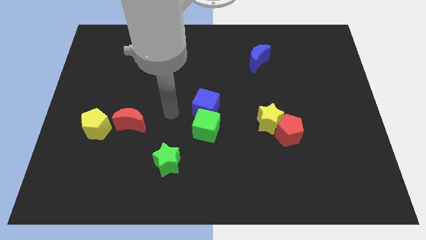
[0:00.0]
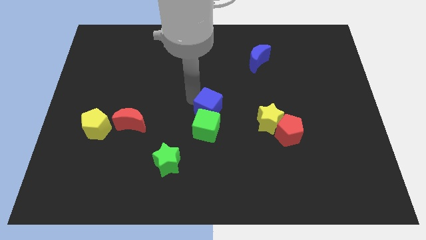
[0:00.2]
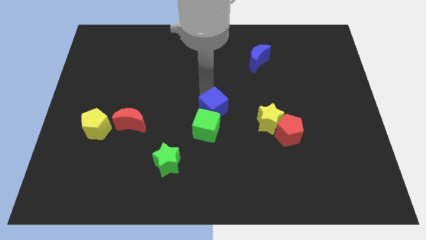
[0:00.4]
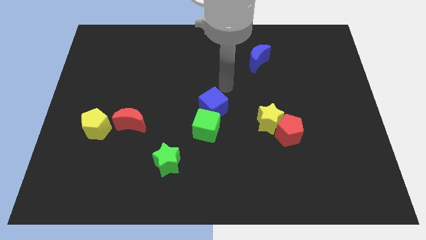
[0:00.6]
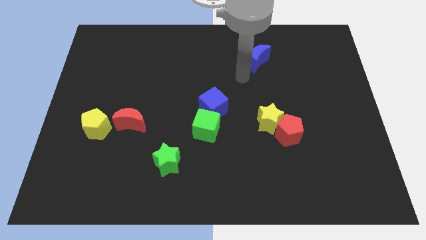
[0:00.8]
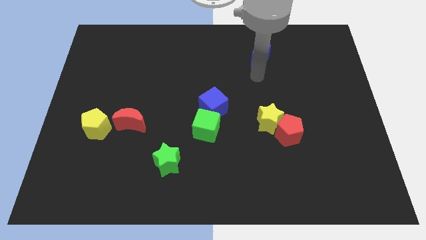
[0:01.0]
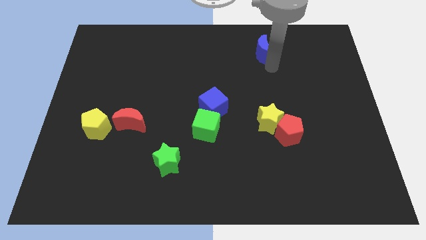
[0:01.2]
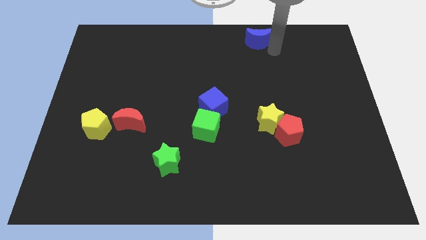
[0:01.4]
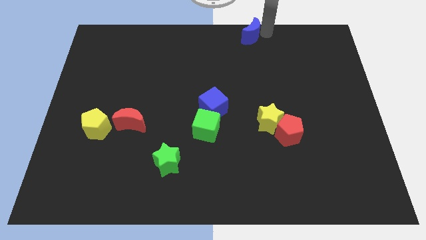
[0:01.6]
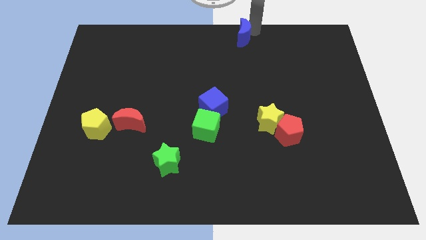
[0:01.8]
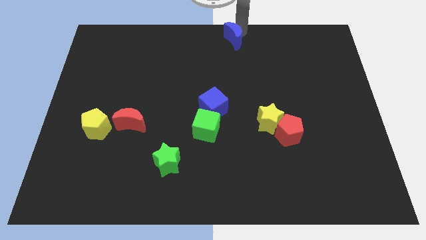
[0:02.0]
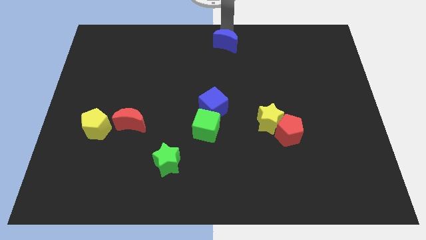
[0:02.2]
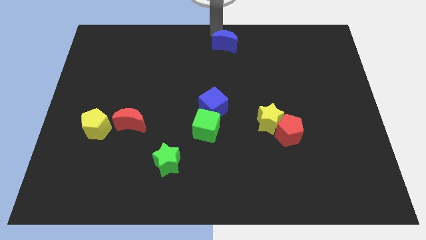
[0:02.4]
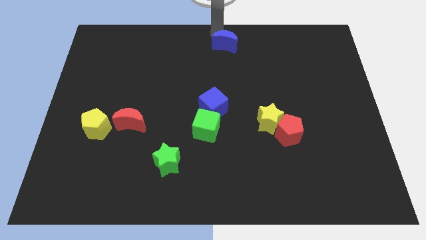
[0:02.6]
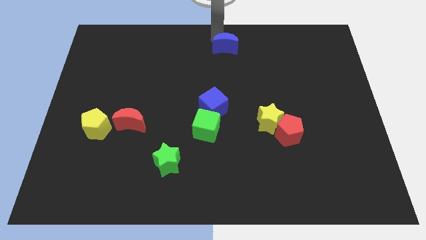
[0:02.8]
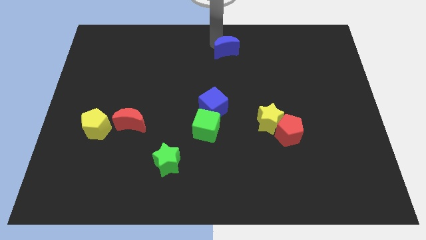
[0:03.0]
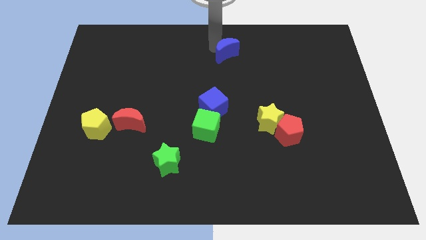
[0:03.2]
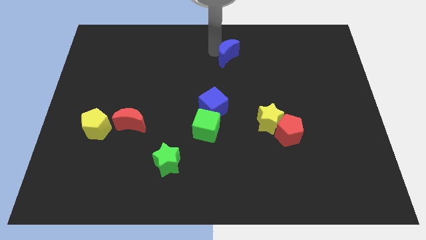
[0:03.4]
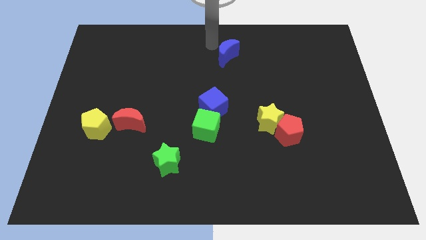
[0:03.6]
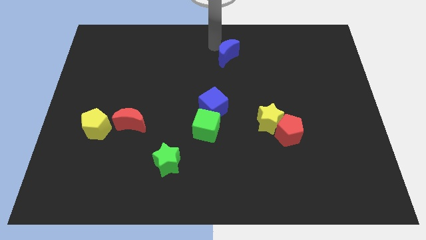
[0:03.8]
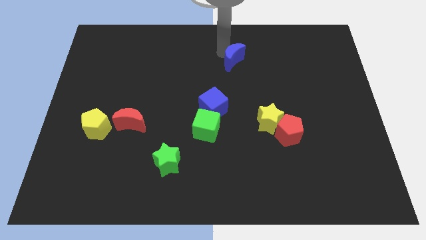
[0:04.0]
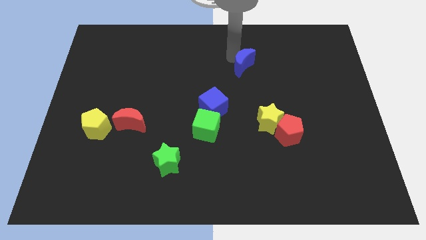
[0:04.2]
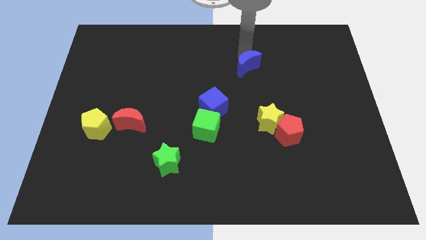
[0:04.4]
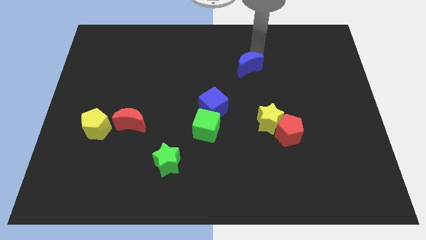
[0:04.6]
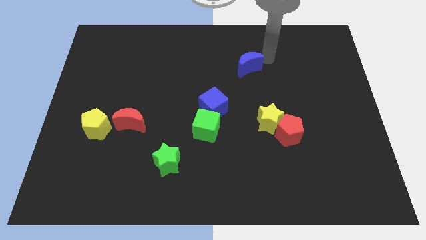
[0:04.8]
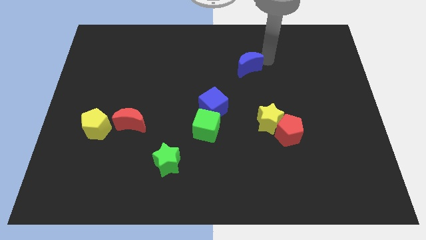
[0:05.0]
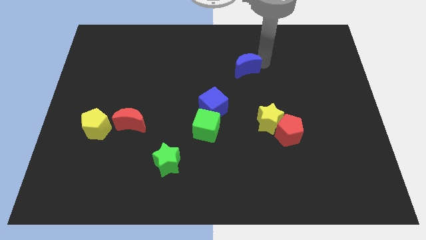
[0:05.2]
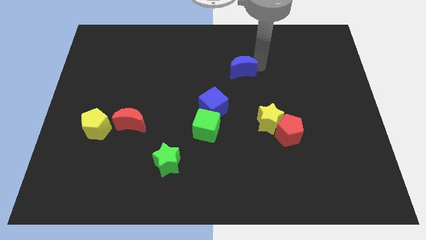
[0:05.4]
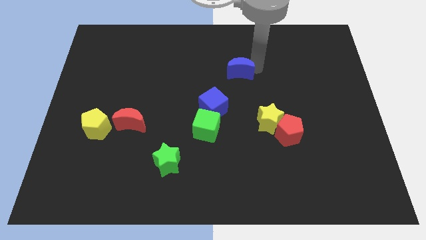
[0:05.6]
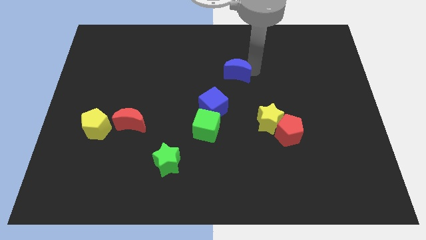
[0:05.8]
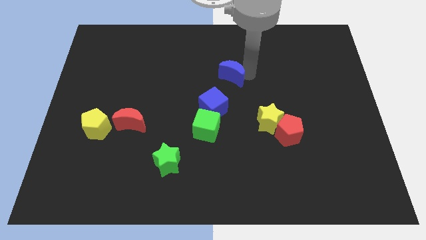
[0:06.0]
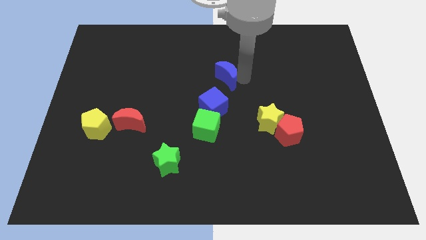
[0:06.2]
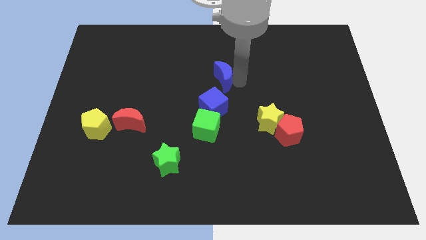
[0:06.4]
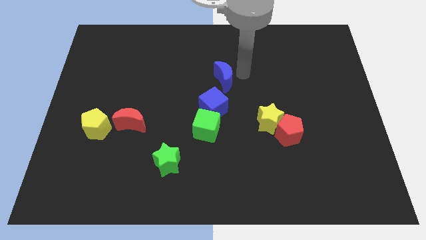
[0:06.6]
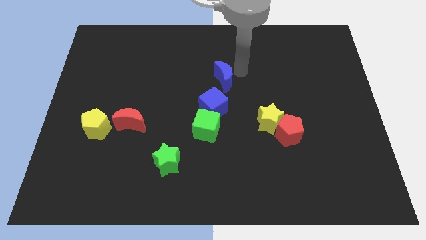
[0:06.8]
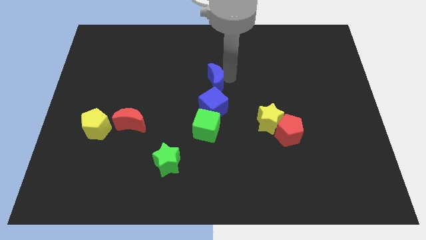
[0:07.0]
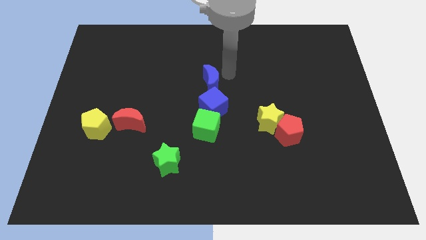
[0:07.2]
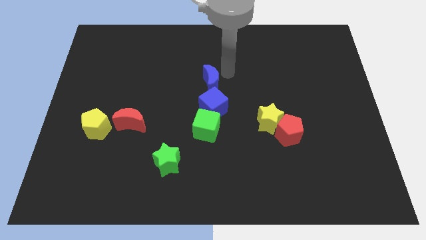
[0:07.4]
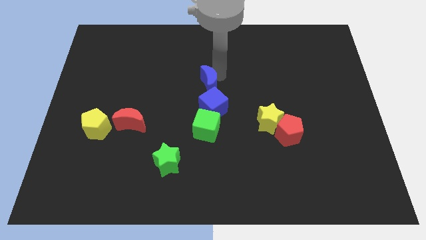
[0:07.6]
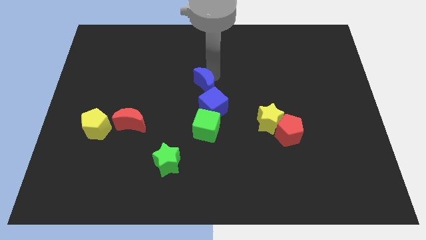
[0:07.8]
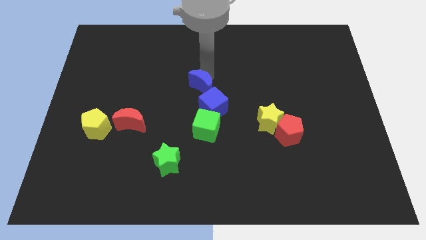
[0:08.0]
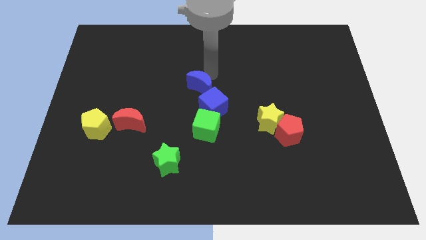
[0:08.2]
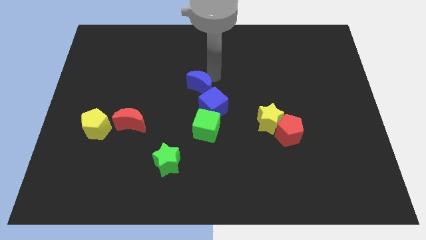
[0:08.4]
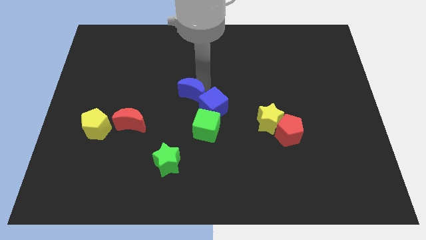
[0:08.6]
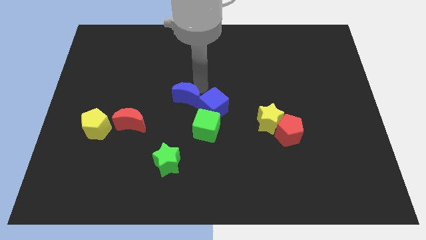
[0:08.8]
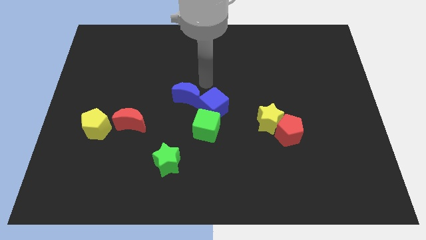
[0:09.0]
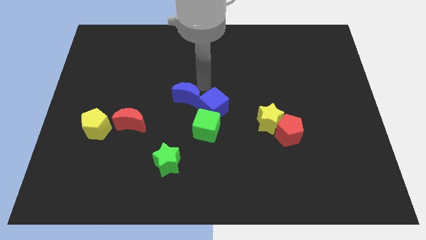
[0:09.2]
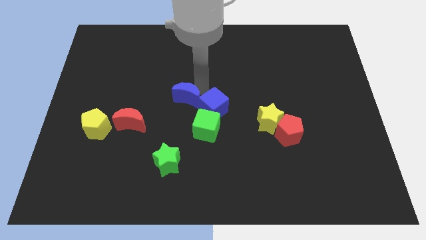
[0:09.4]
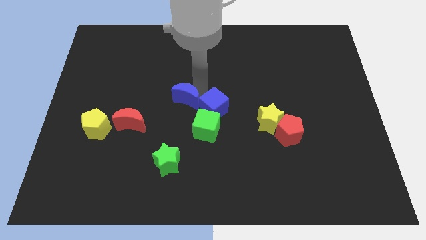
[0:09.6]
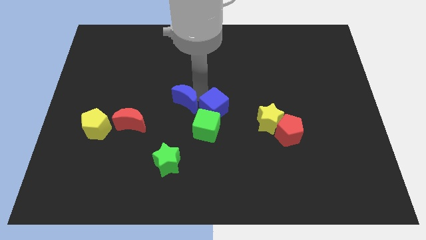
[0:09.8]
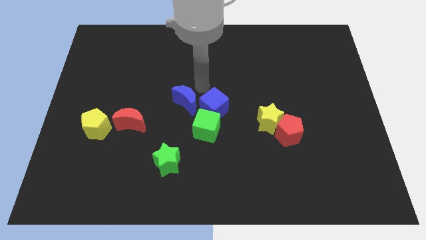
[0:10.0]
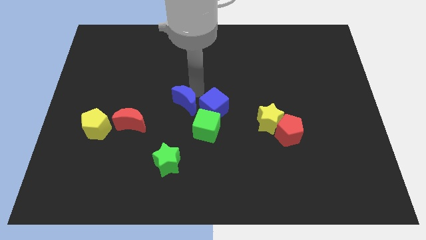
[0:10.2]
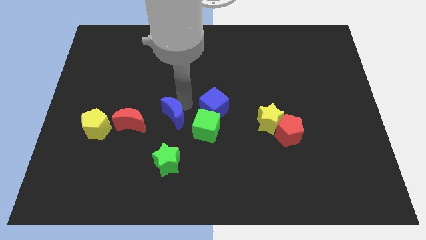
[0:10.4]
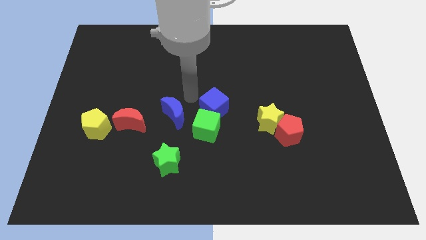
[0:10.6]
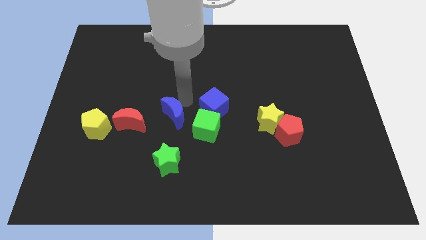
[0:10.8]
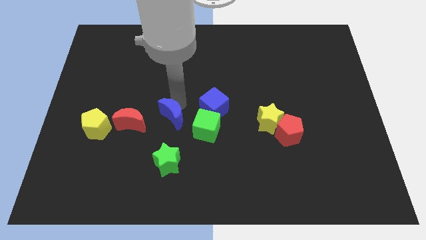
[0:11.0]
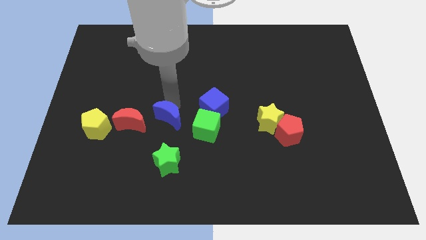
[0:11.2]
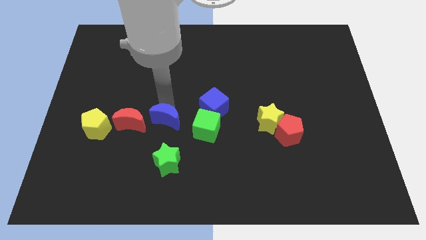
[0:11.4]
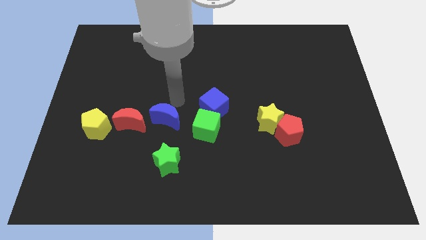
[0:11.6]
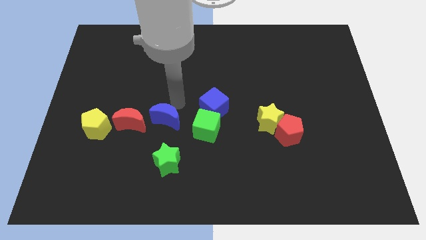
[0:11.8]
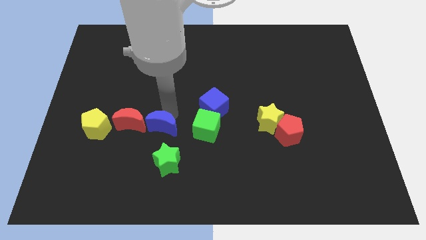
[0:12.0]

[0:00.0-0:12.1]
slide the blue moon to the bottom right side of the red moon
